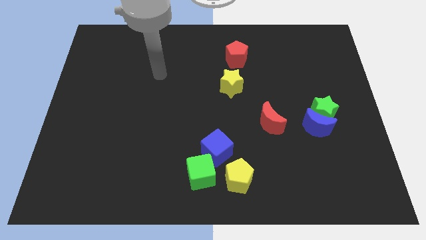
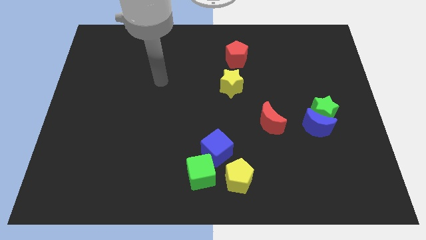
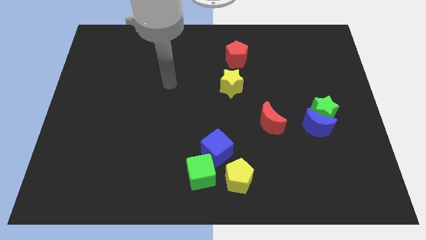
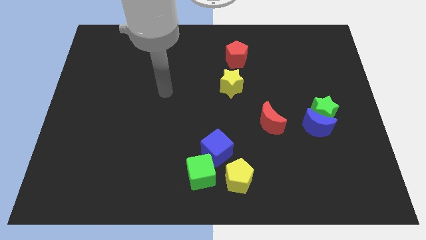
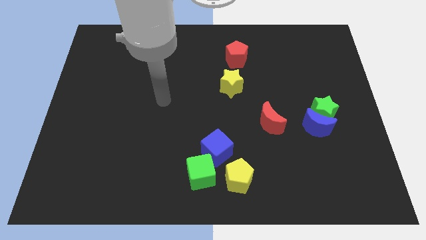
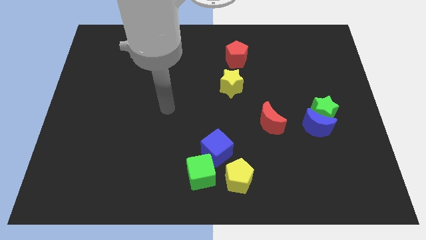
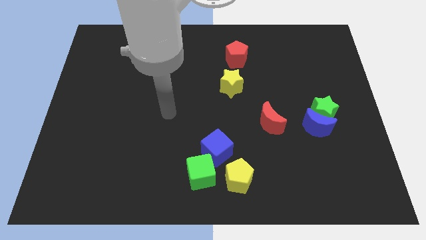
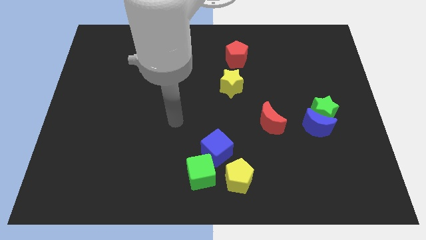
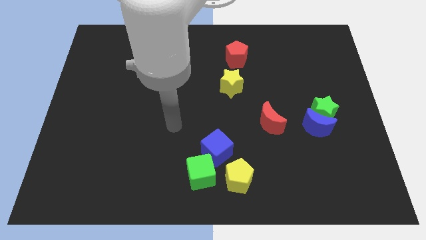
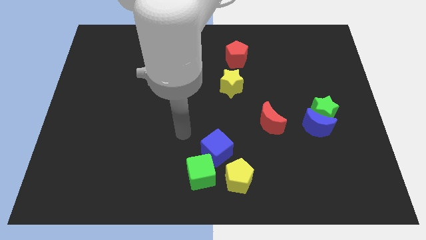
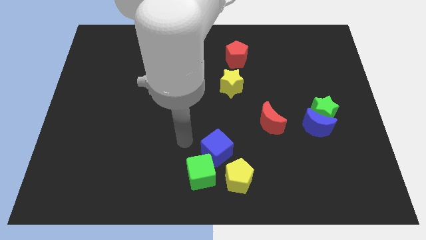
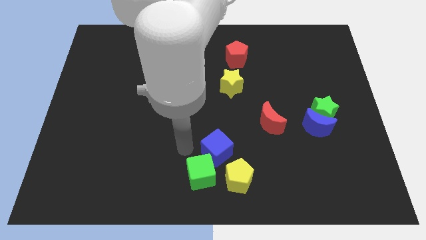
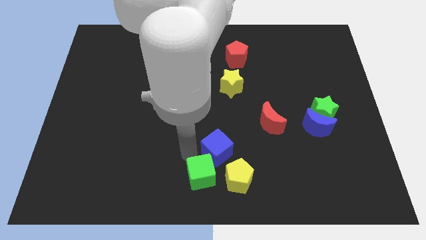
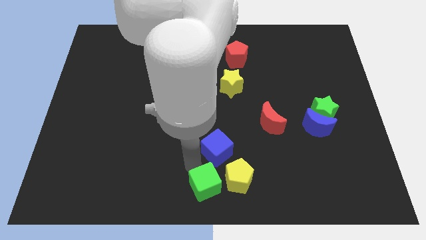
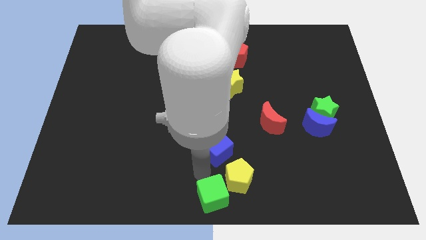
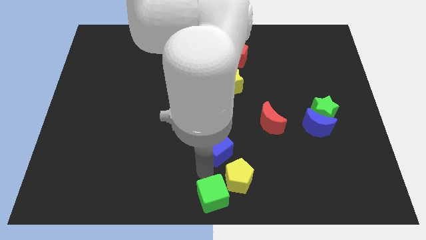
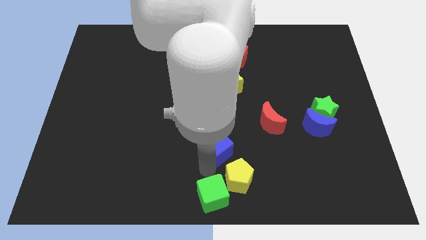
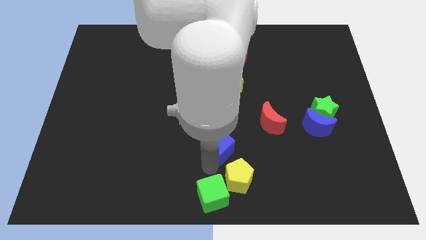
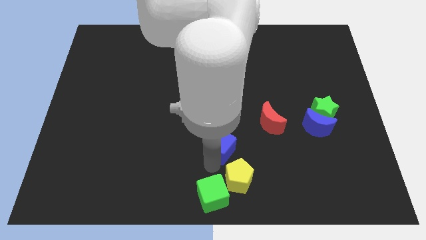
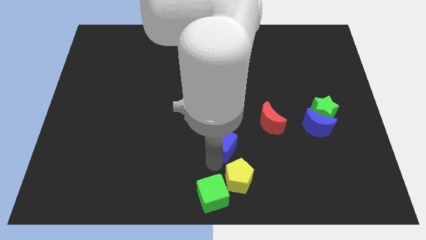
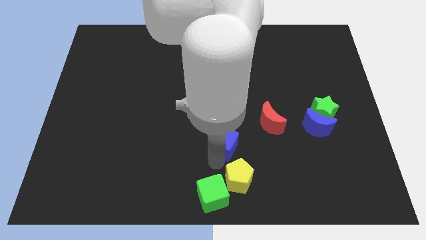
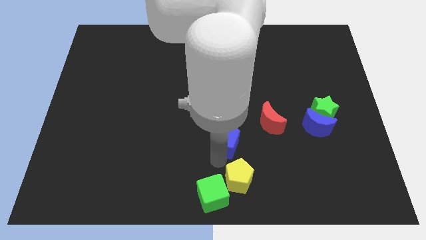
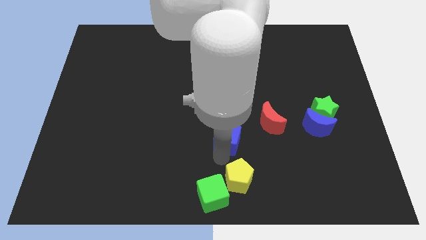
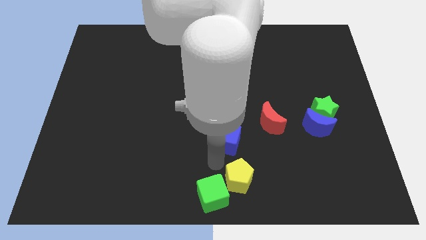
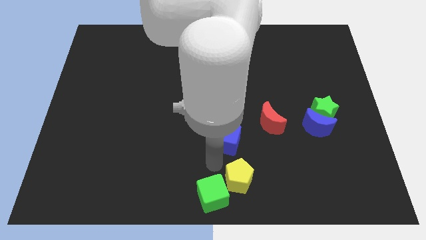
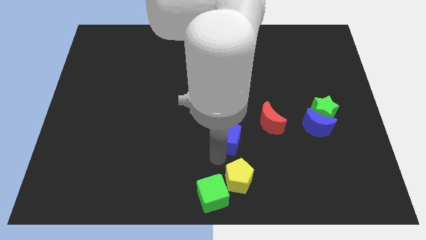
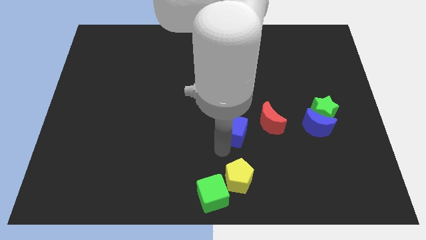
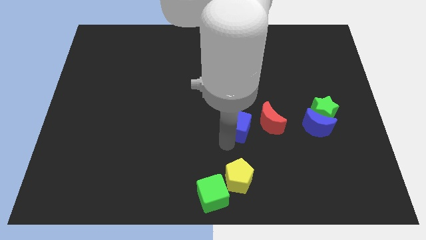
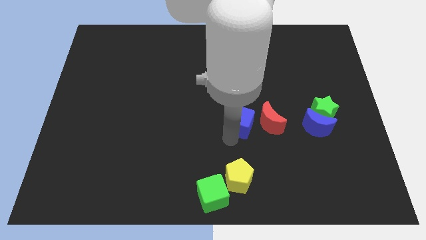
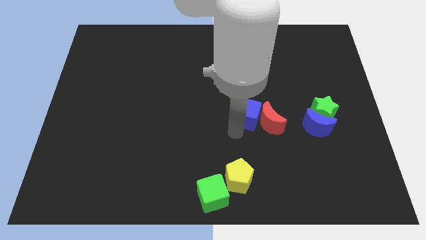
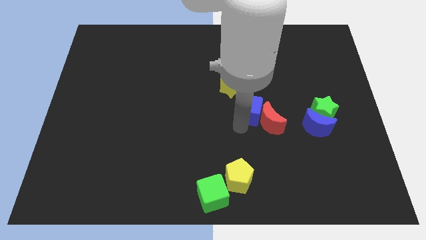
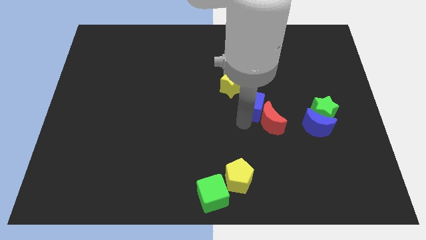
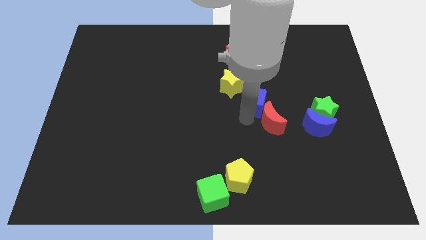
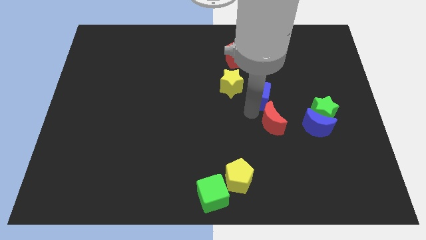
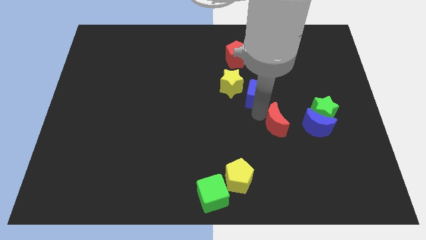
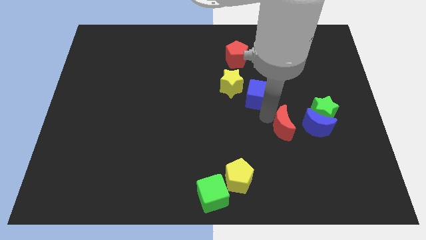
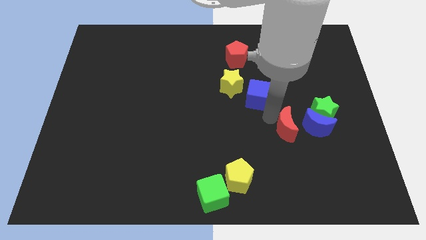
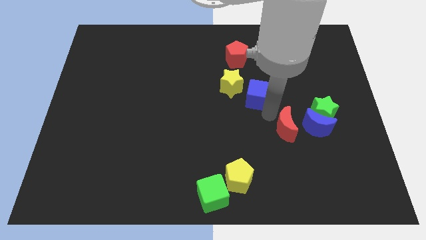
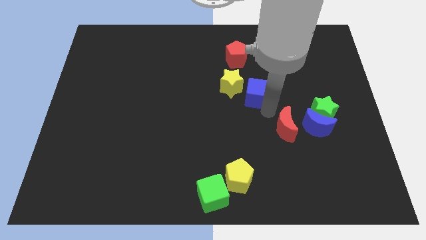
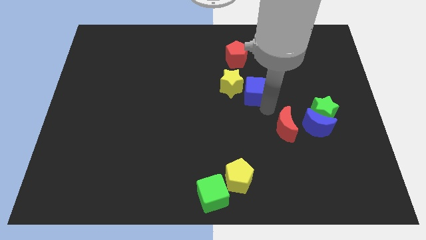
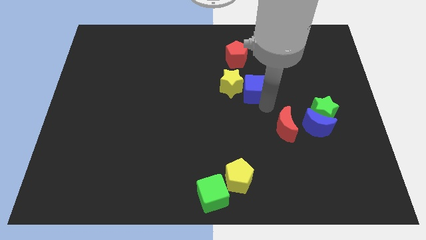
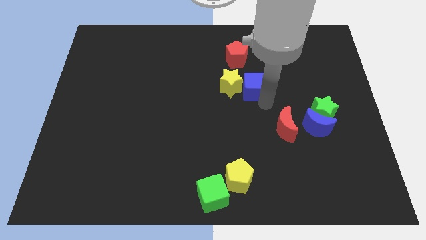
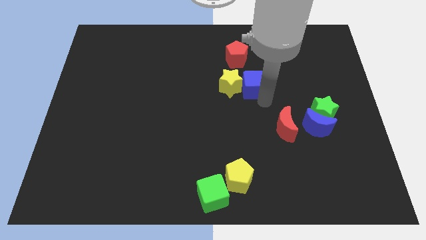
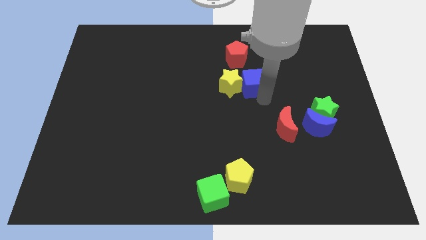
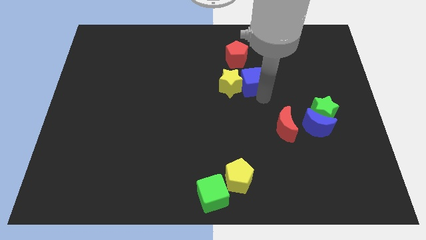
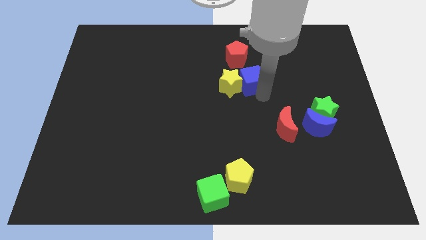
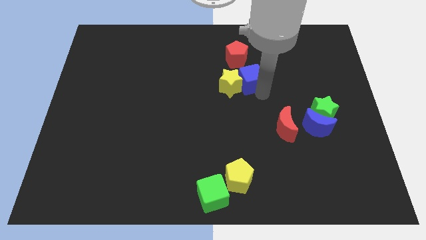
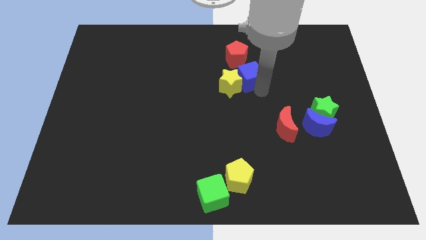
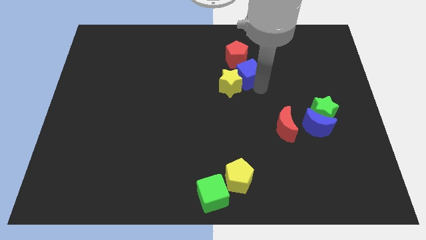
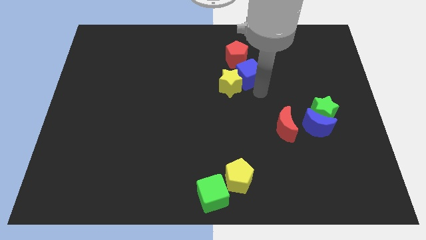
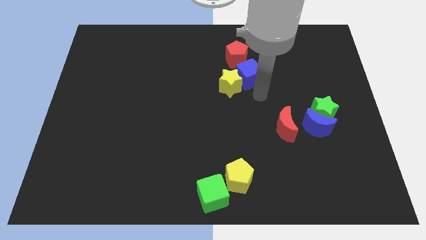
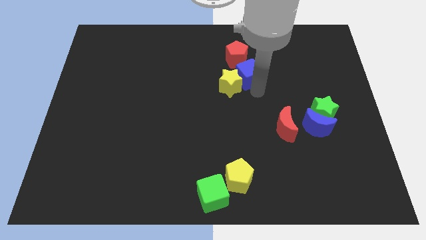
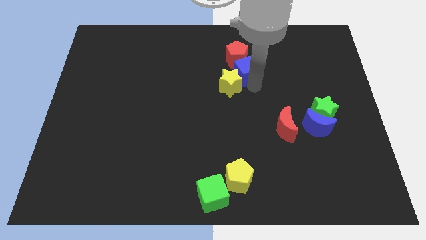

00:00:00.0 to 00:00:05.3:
move the blue cube towards the red pentagon

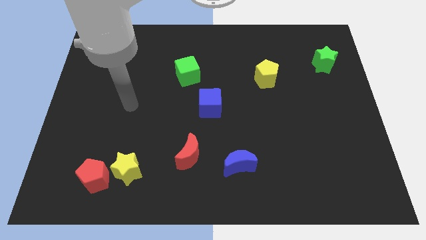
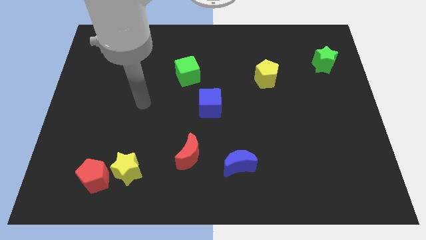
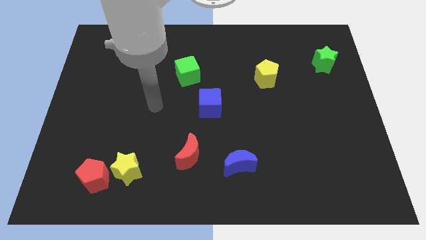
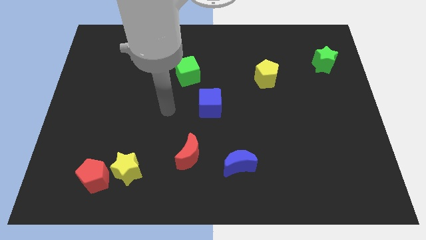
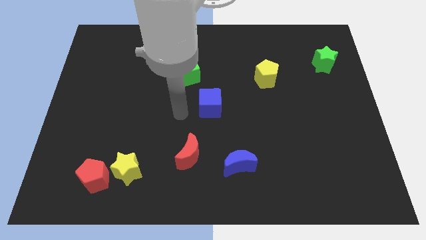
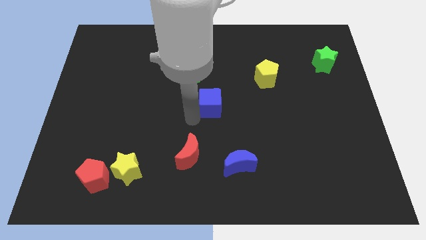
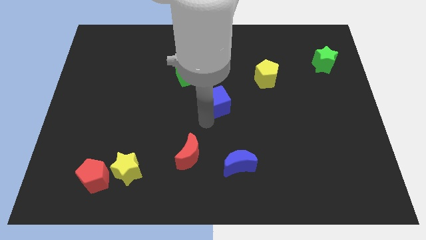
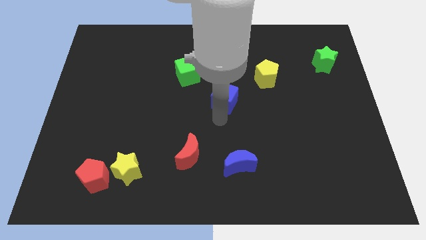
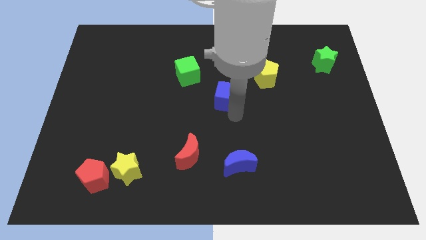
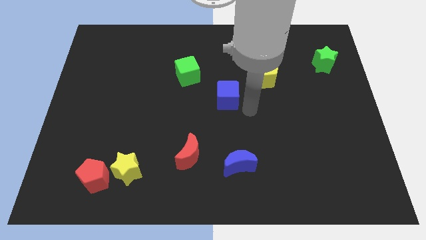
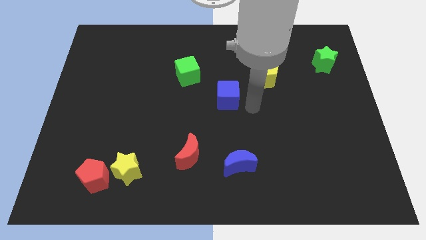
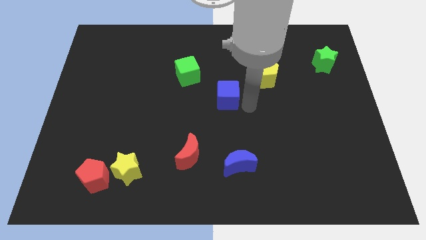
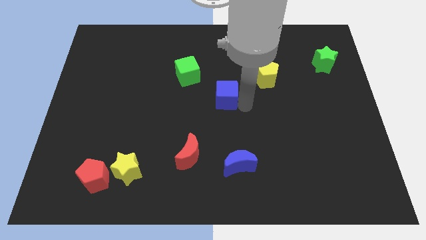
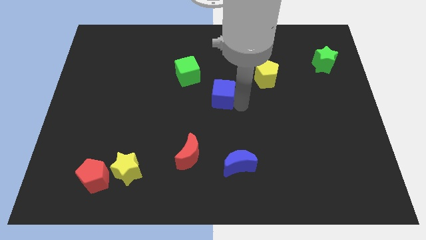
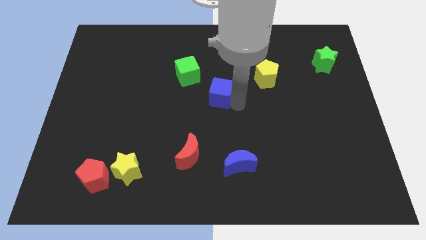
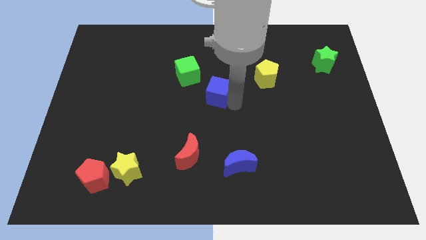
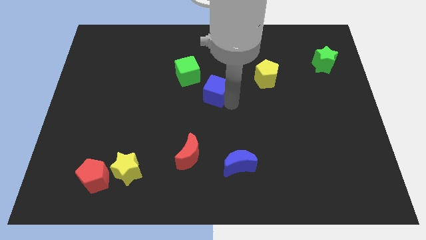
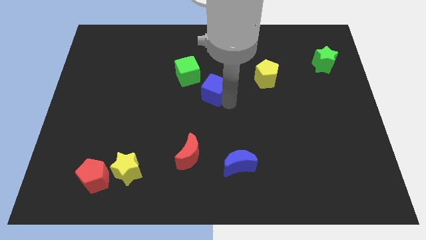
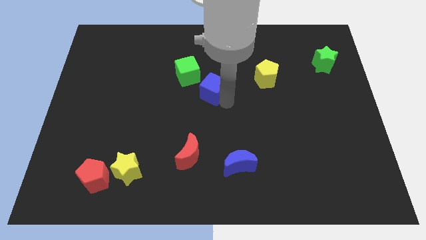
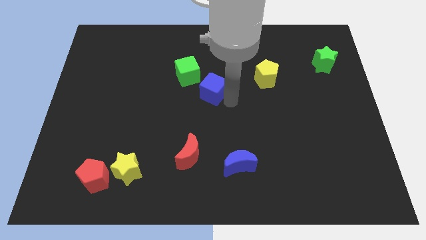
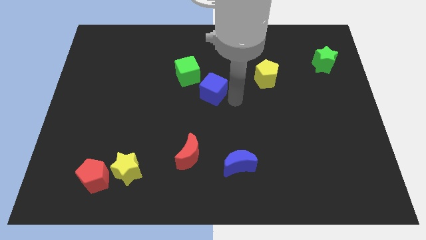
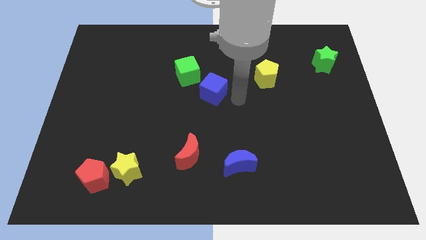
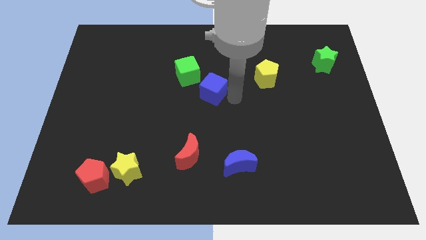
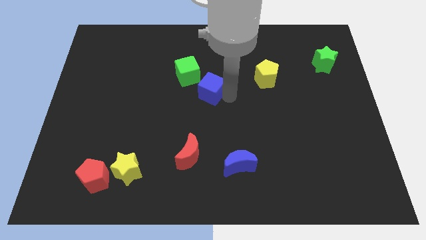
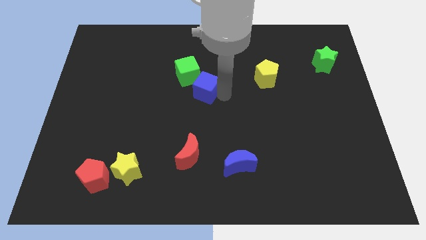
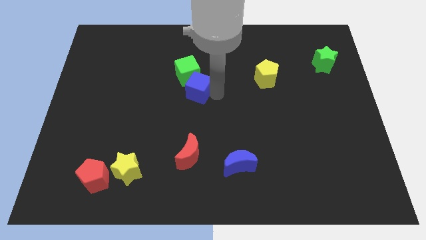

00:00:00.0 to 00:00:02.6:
slide the blue cube towards the green cube
